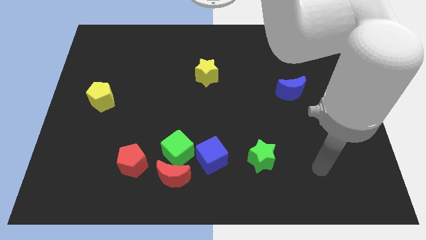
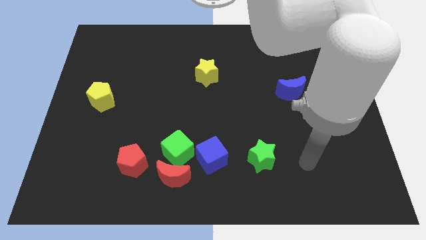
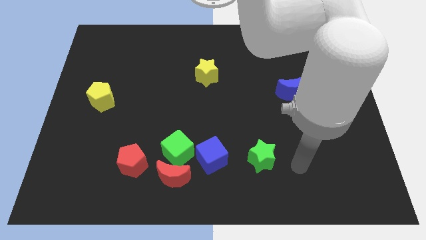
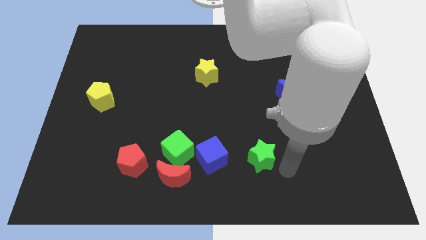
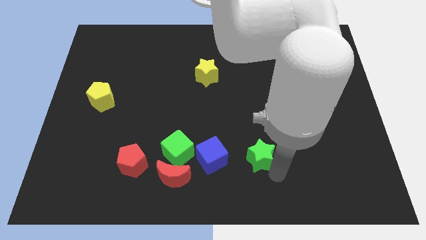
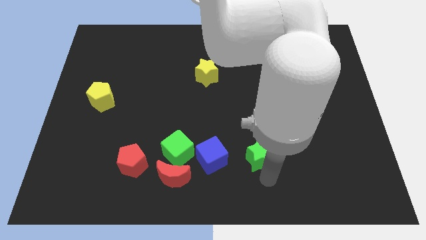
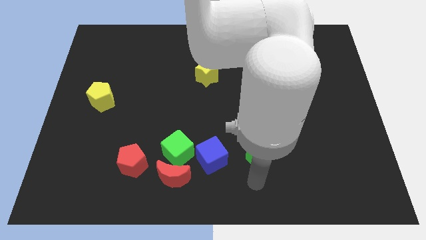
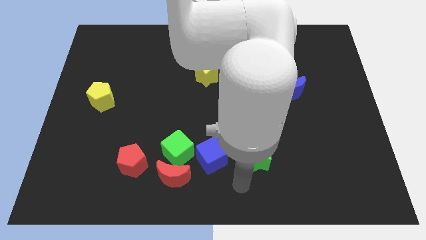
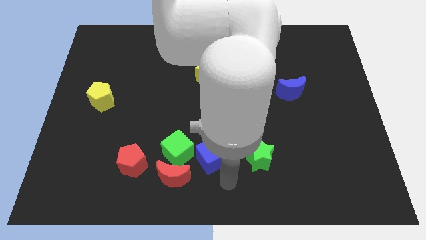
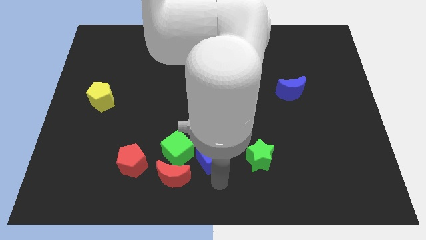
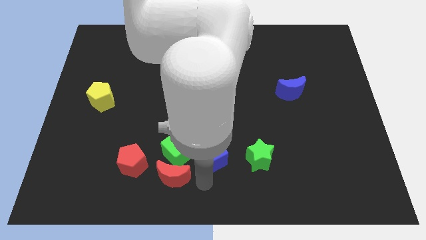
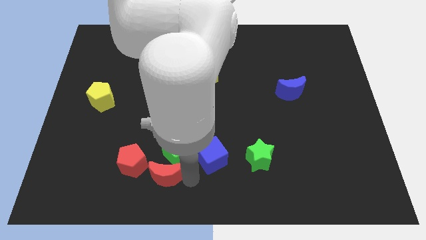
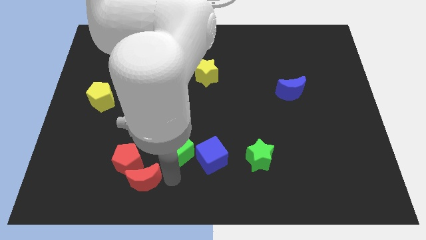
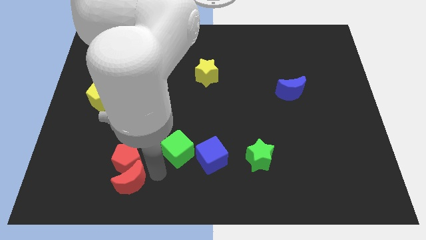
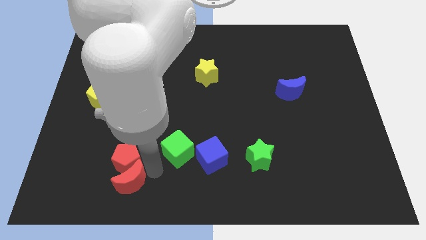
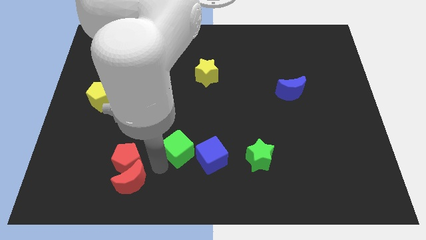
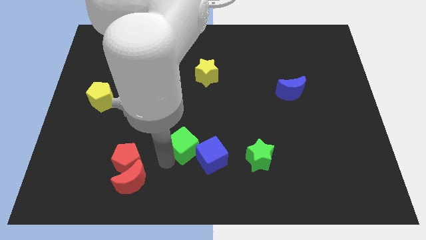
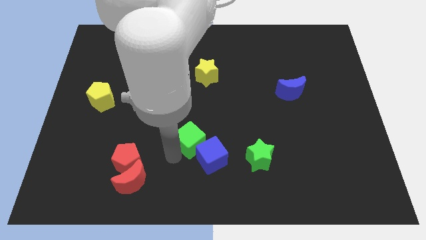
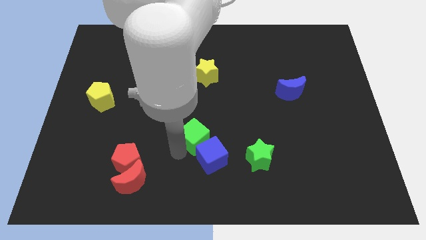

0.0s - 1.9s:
pull the green cube apart from the red moon, blue cube, and red pentagon

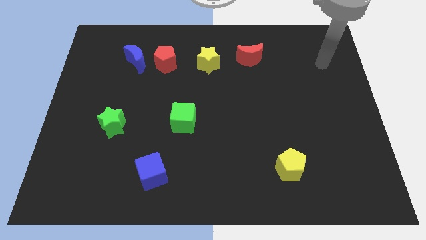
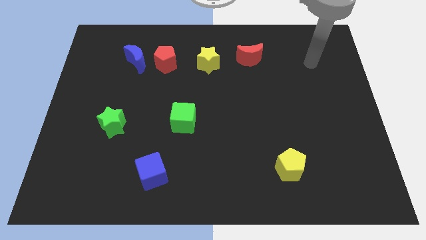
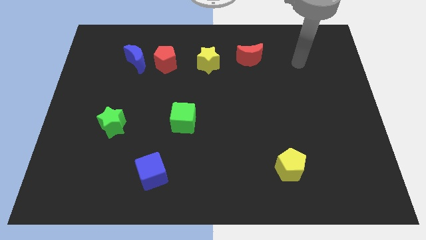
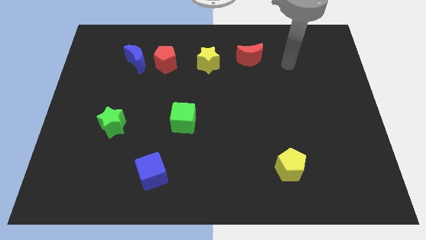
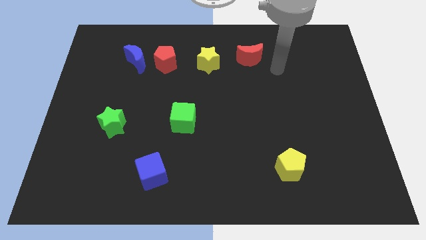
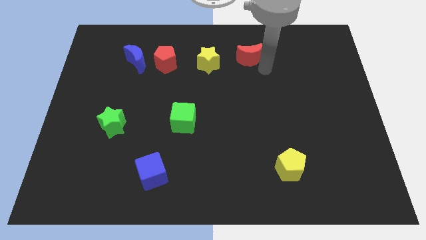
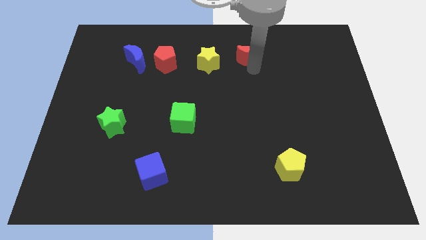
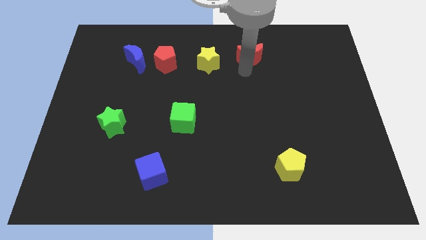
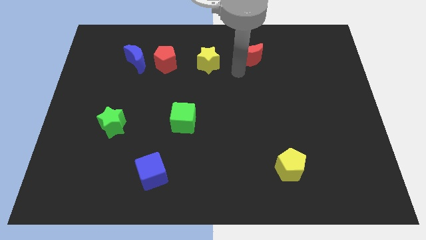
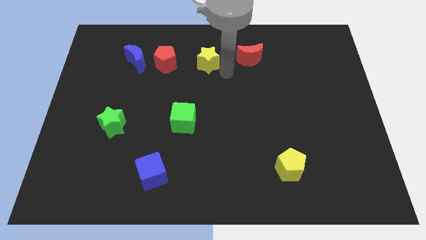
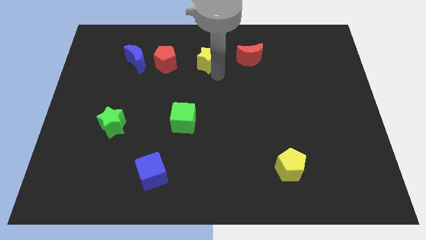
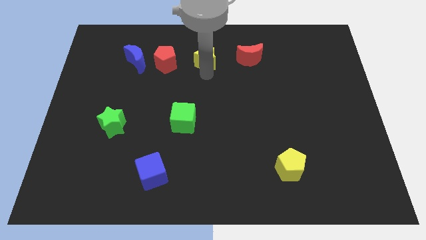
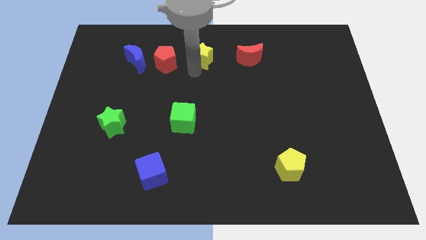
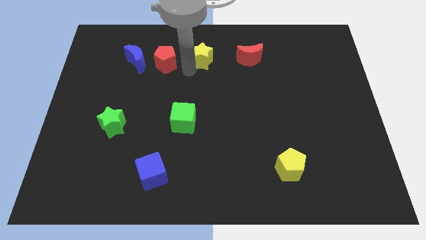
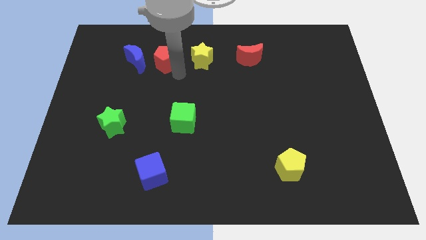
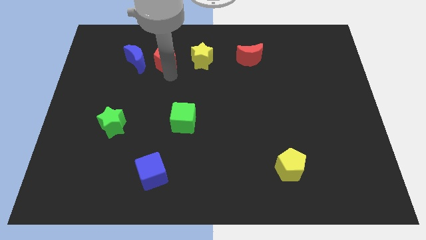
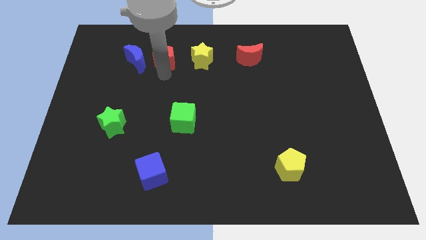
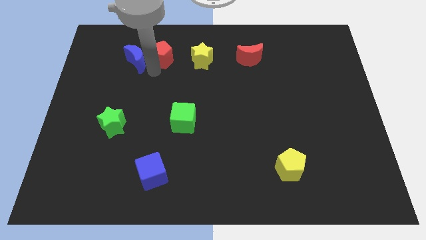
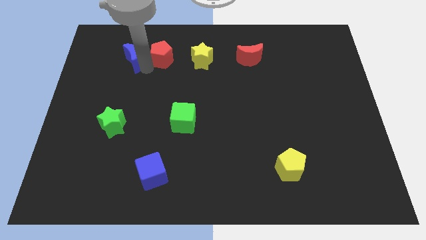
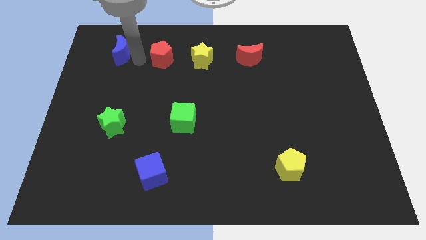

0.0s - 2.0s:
separate the red pentagon from the blue moon

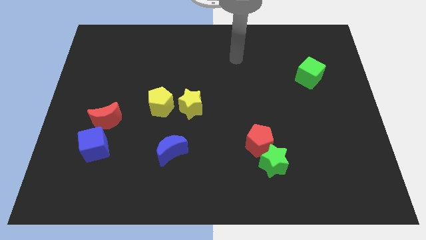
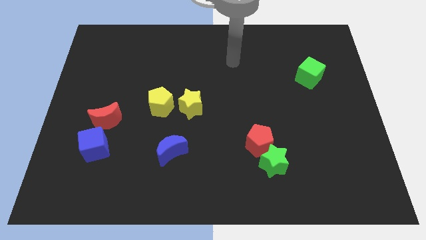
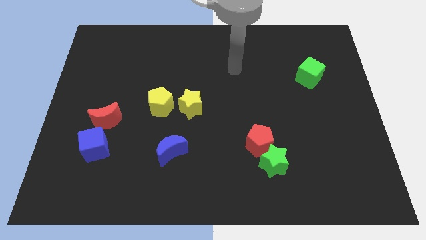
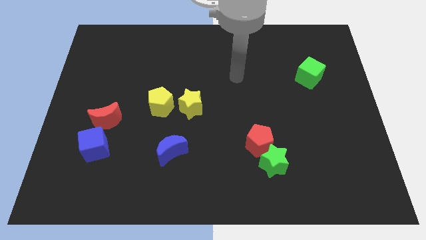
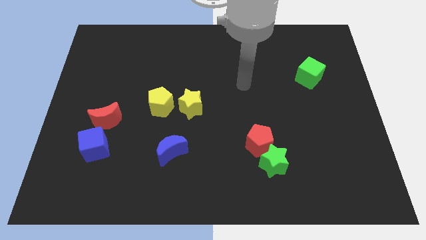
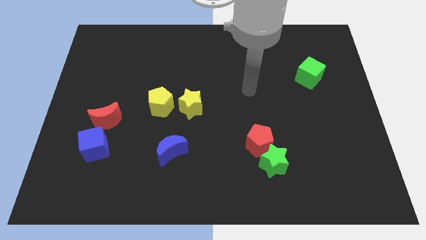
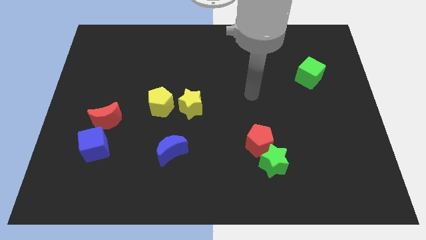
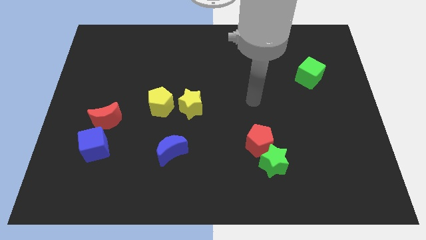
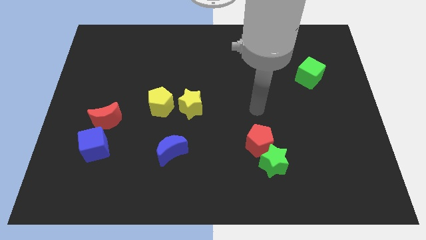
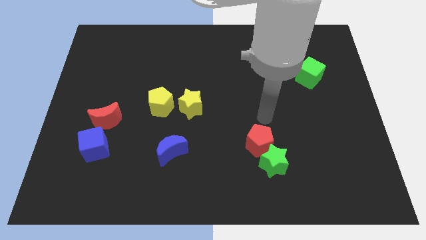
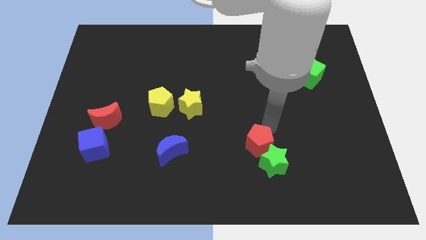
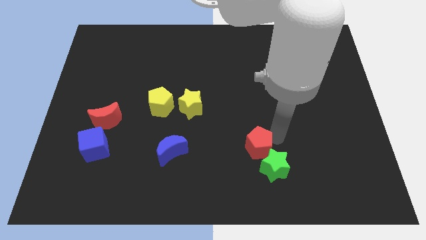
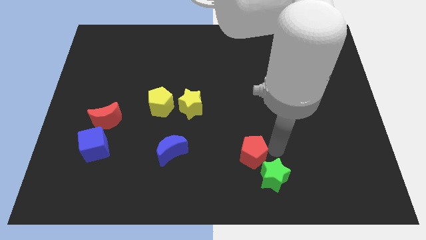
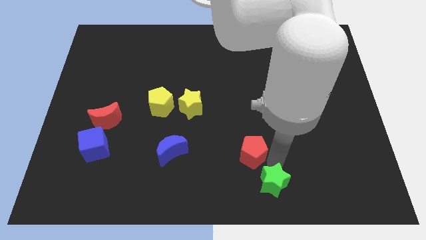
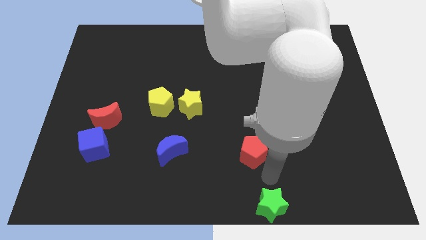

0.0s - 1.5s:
move the red pentagon away from the green star

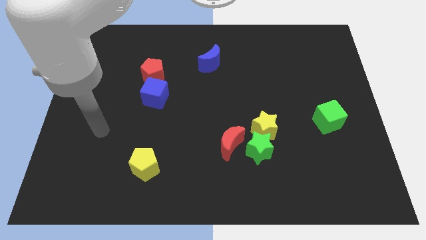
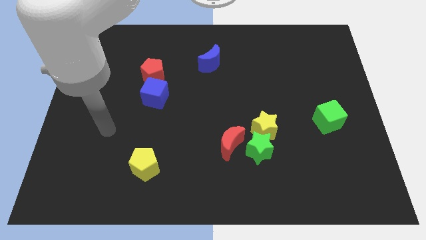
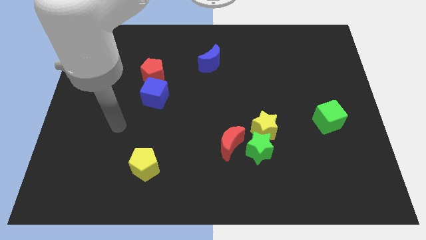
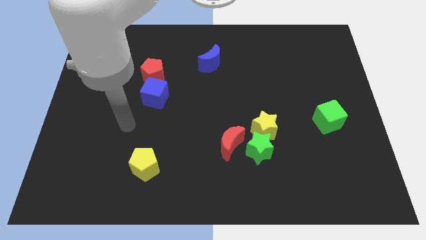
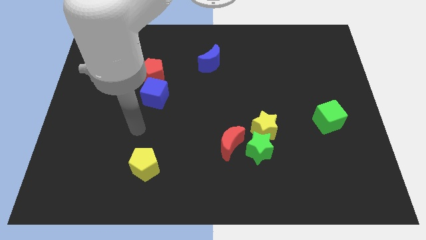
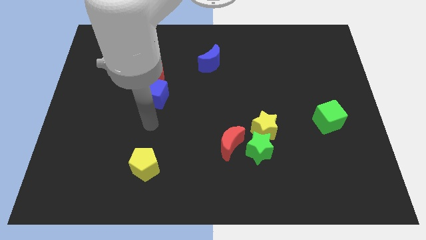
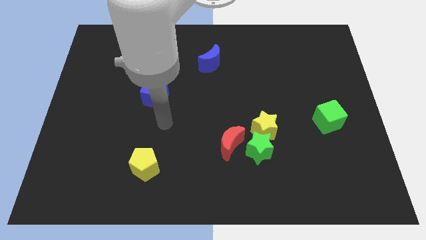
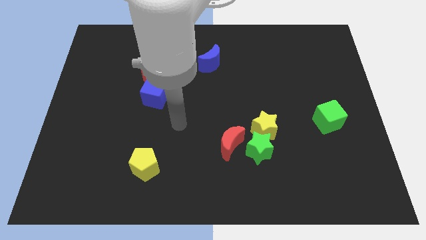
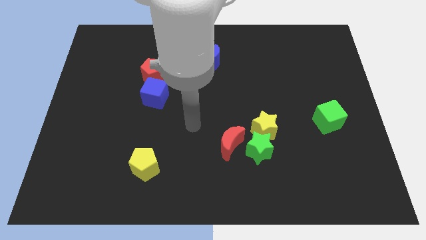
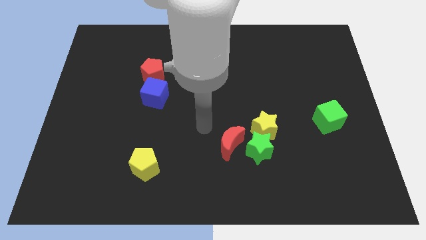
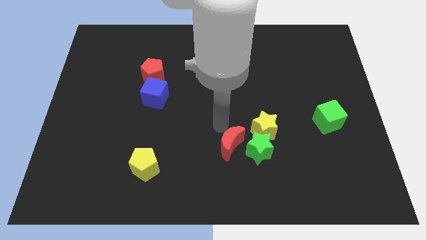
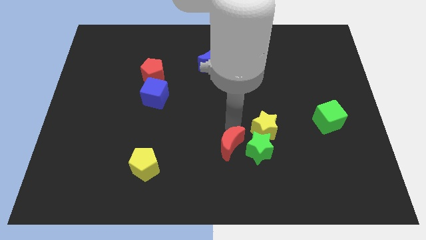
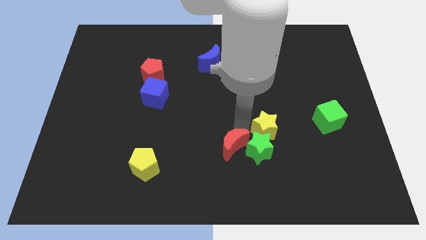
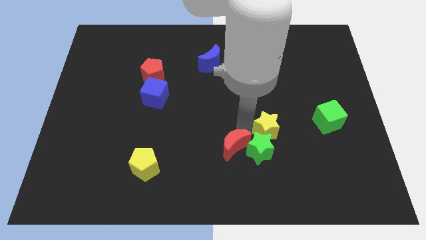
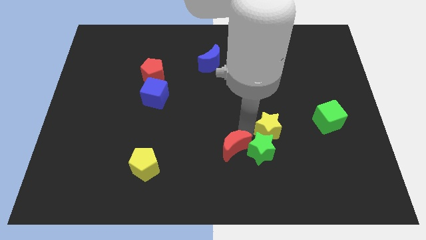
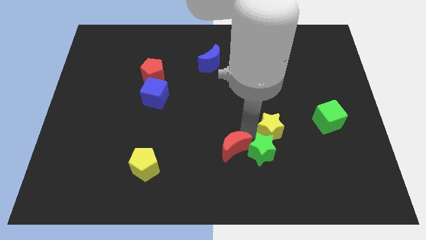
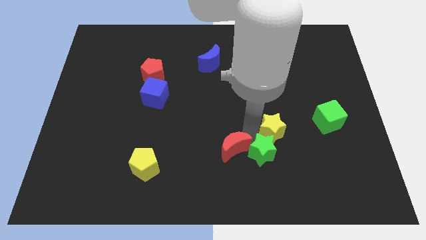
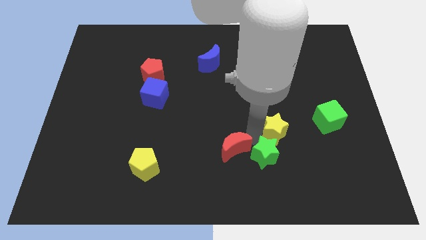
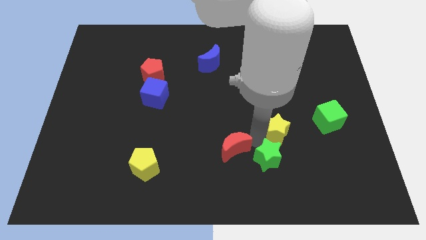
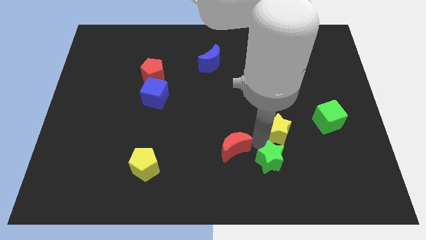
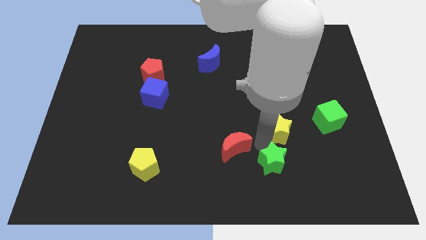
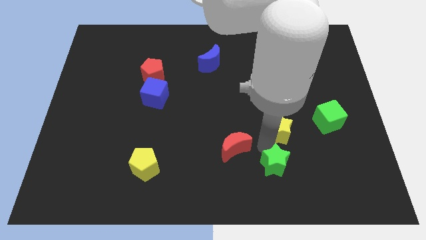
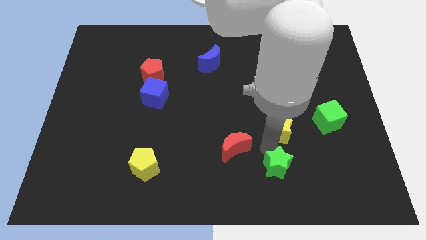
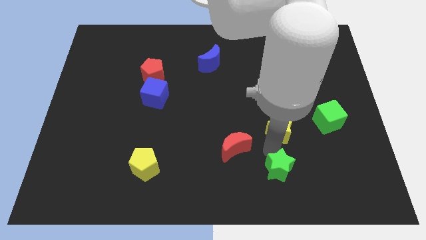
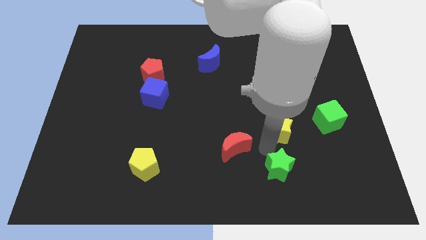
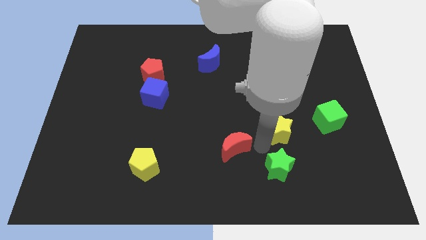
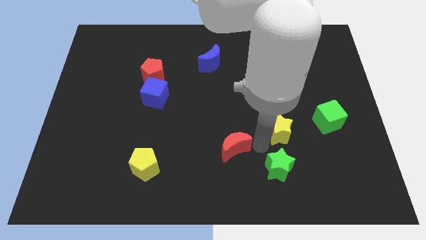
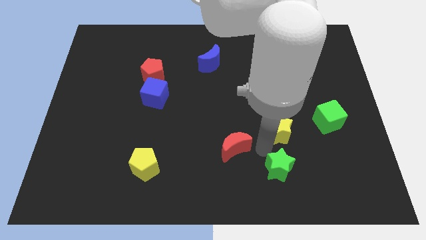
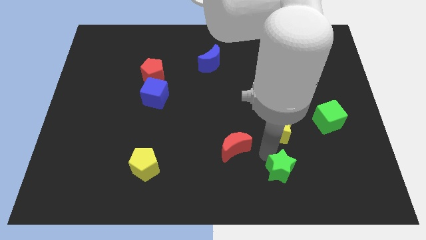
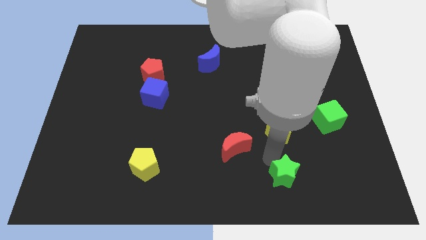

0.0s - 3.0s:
pull the green star apart from the yellow star and red moon

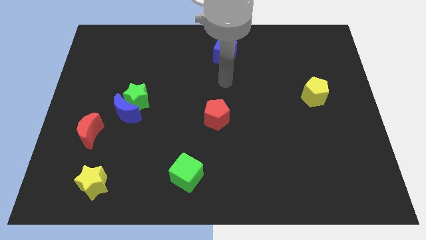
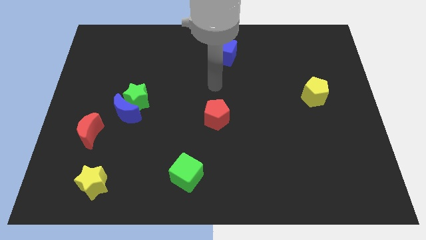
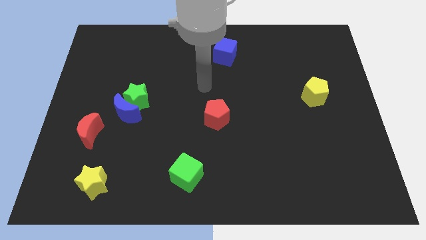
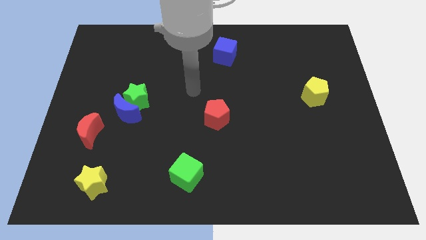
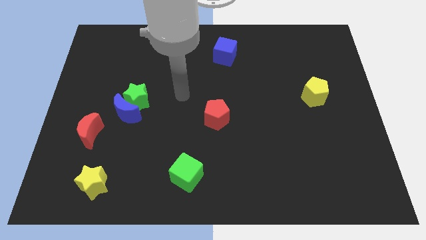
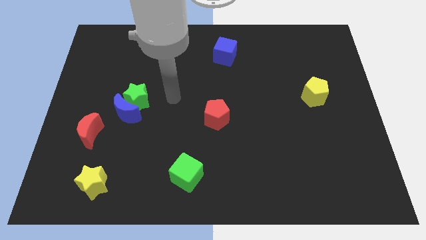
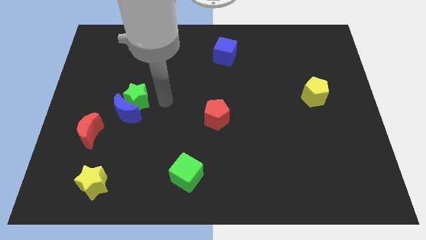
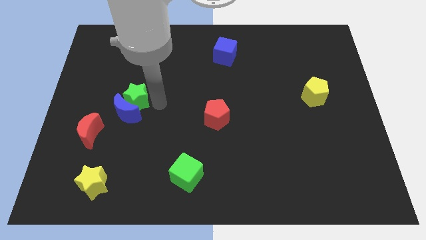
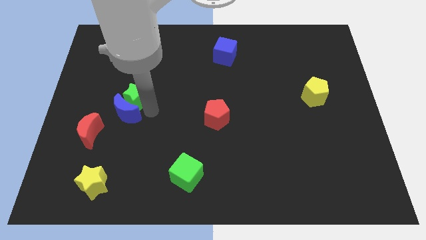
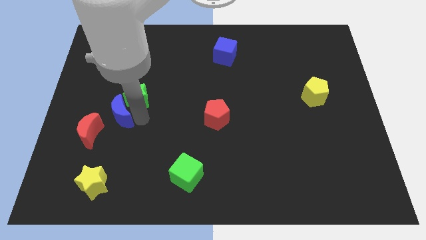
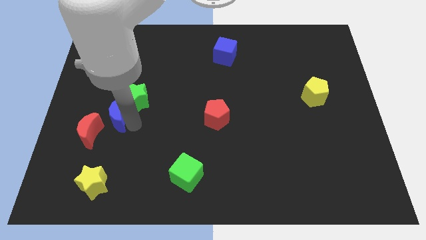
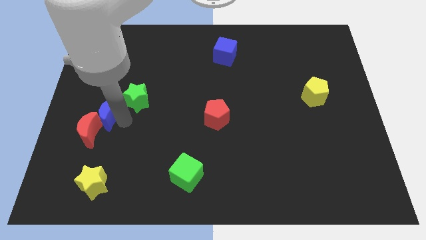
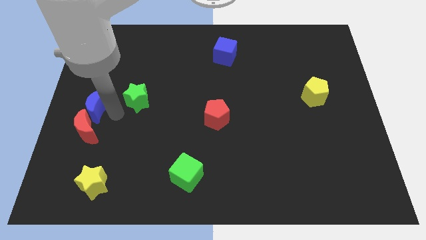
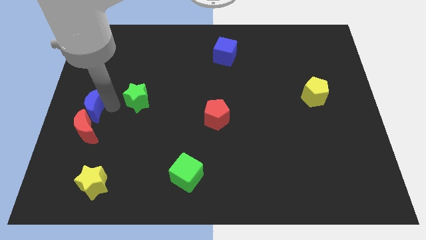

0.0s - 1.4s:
move the green star away from the blue moon
